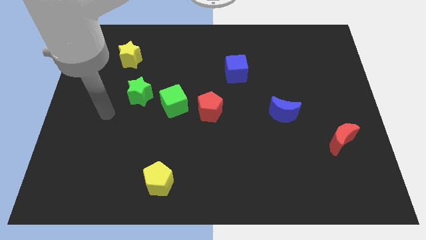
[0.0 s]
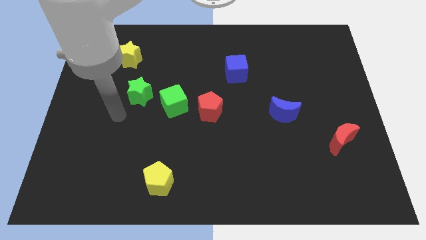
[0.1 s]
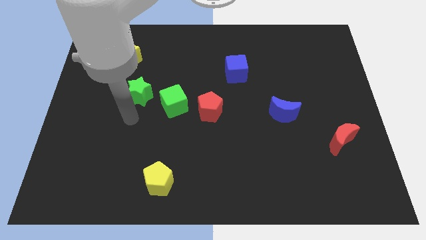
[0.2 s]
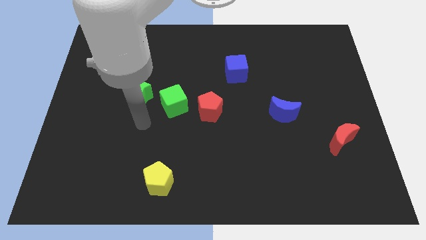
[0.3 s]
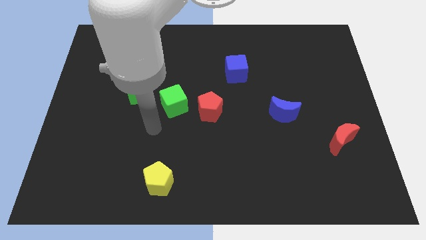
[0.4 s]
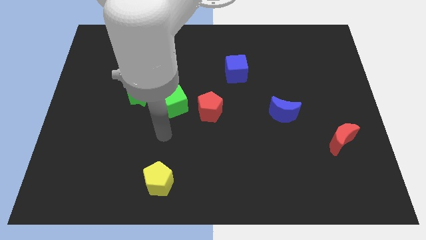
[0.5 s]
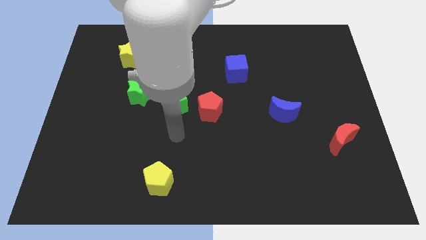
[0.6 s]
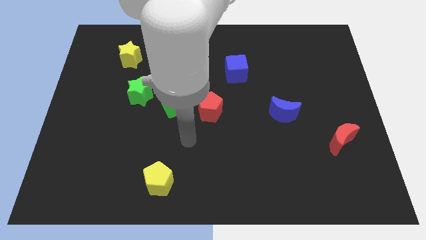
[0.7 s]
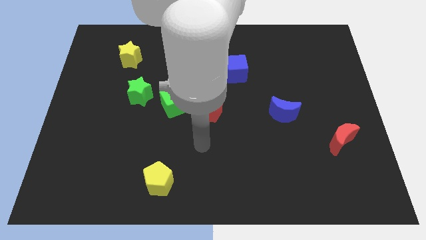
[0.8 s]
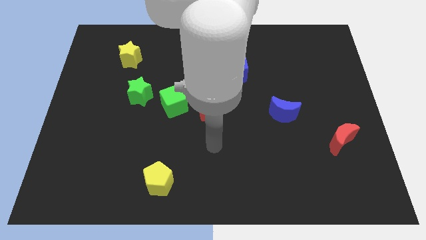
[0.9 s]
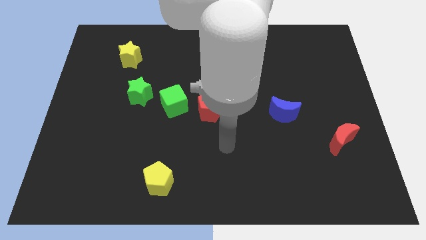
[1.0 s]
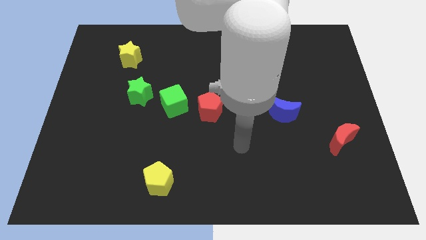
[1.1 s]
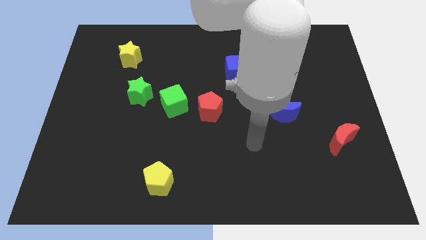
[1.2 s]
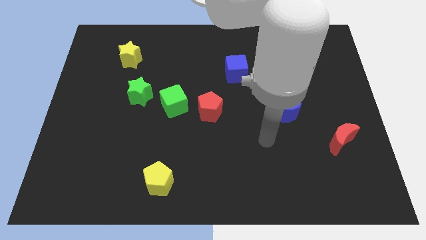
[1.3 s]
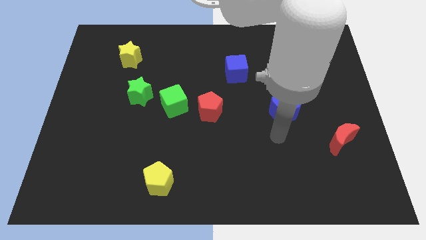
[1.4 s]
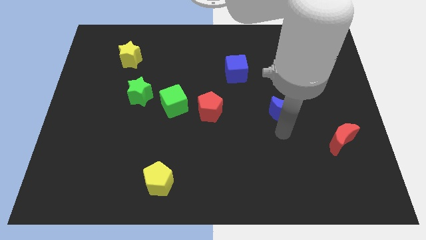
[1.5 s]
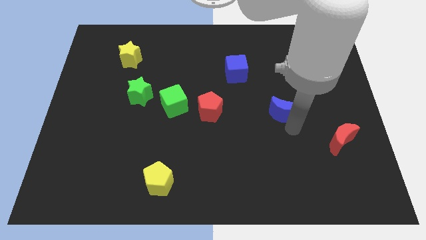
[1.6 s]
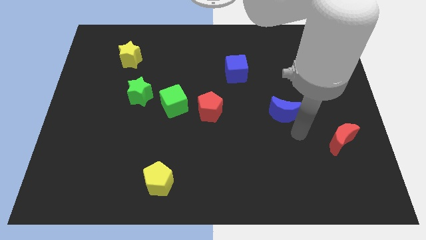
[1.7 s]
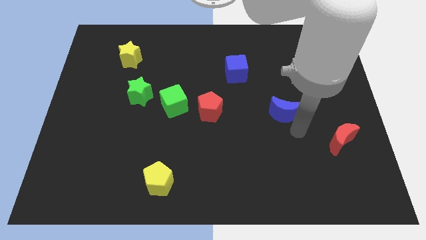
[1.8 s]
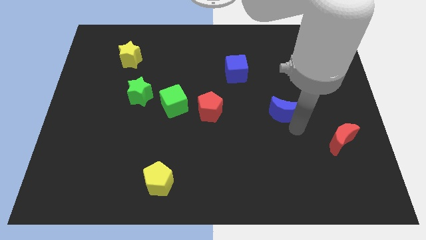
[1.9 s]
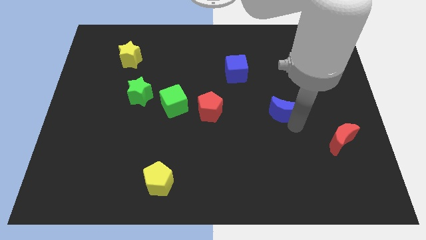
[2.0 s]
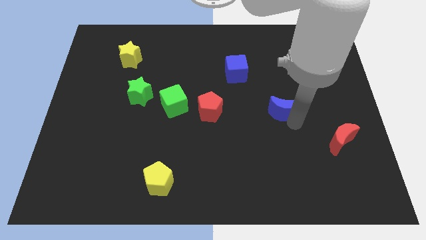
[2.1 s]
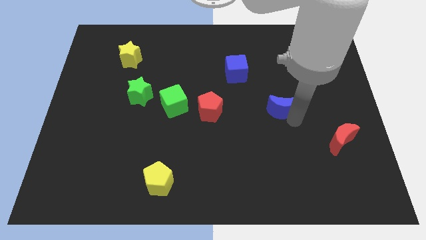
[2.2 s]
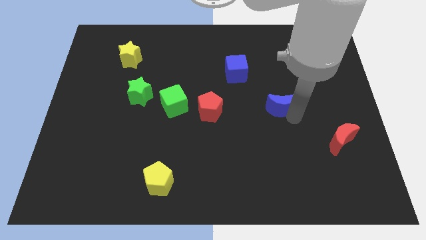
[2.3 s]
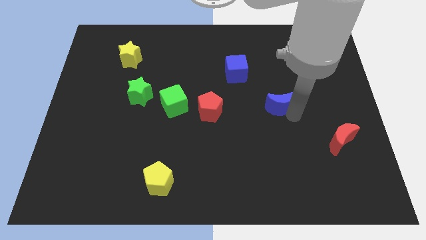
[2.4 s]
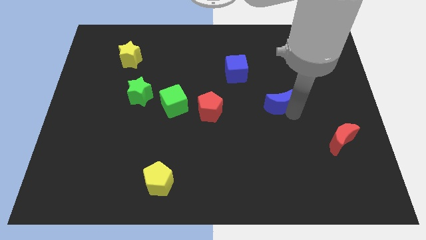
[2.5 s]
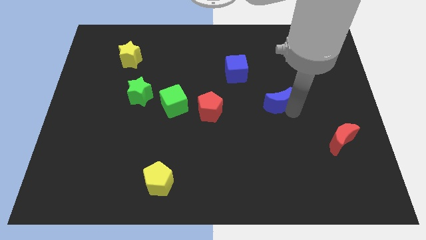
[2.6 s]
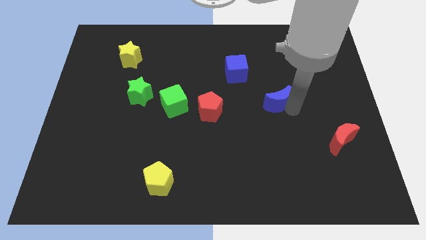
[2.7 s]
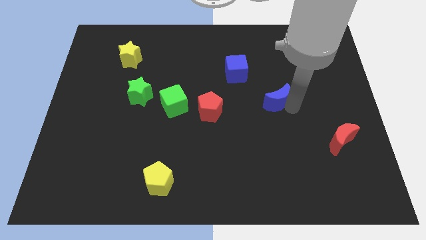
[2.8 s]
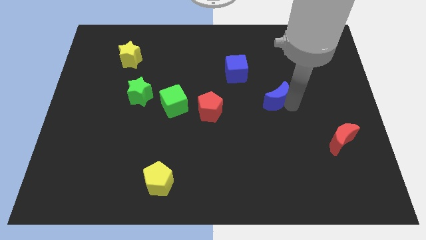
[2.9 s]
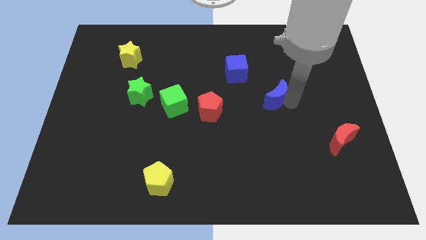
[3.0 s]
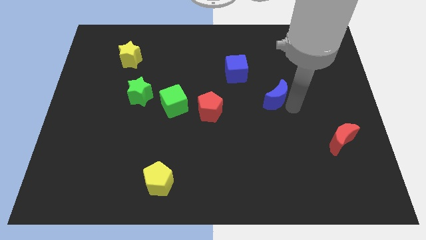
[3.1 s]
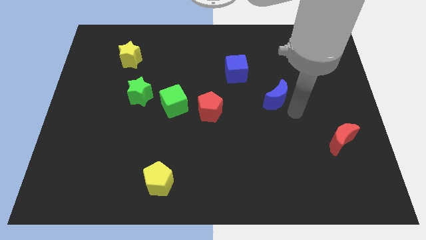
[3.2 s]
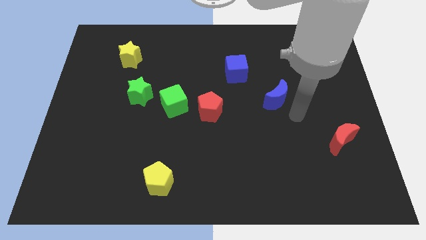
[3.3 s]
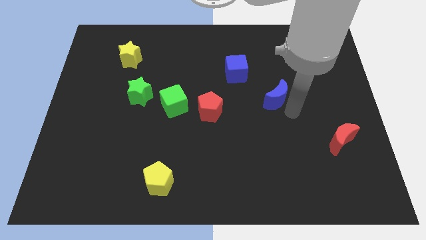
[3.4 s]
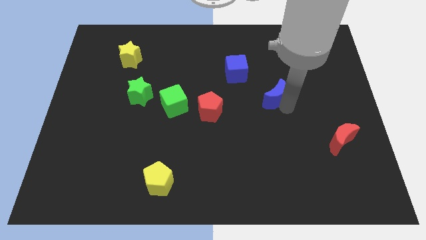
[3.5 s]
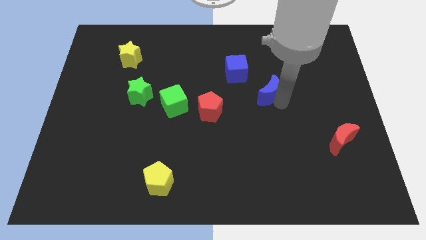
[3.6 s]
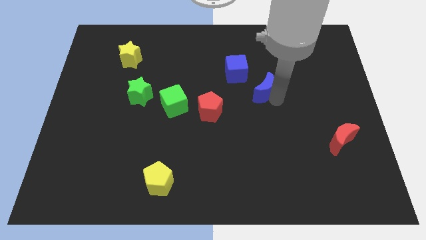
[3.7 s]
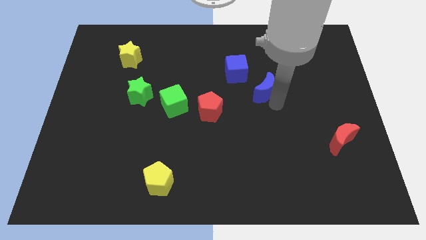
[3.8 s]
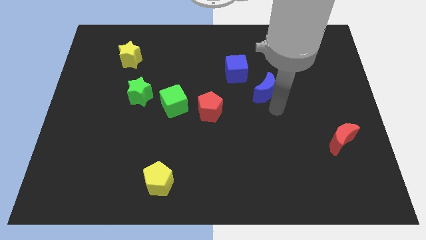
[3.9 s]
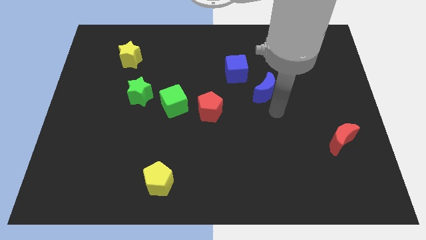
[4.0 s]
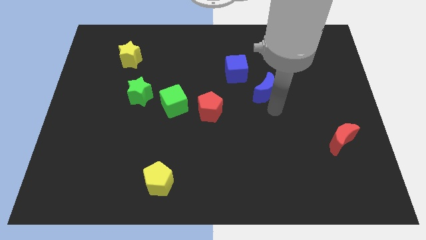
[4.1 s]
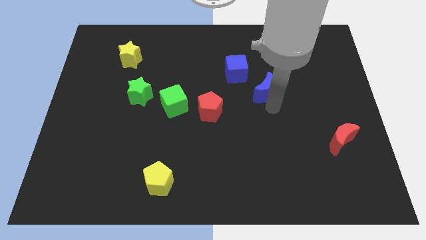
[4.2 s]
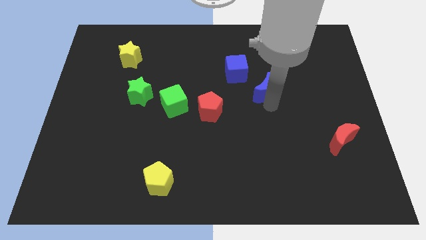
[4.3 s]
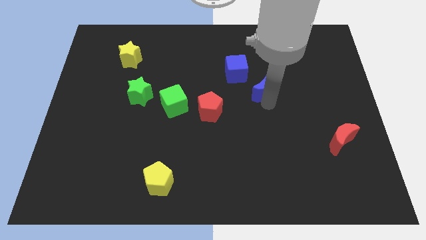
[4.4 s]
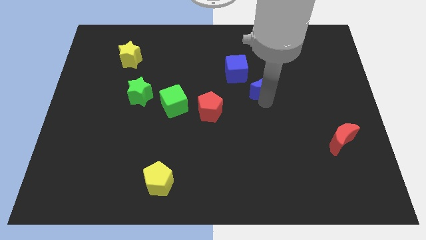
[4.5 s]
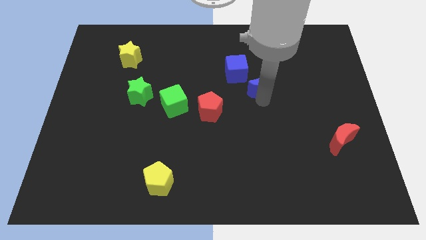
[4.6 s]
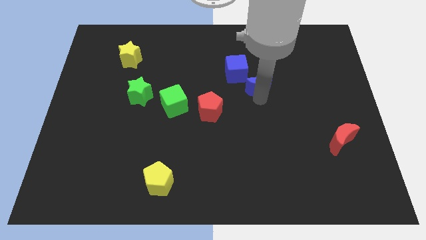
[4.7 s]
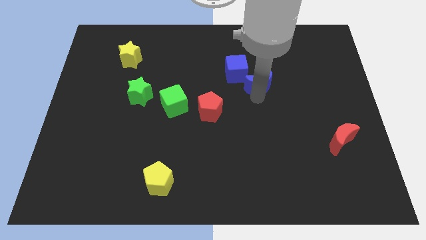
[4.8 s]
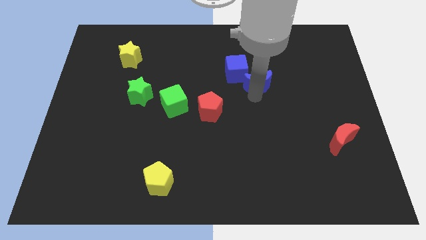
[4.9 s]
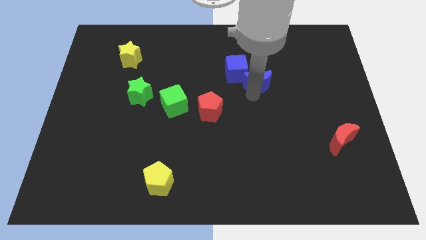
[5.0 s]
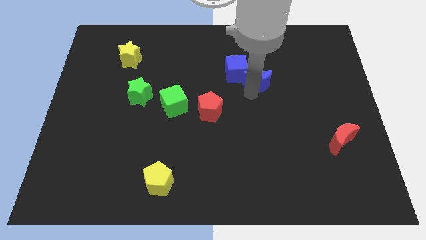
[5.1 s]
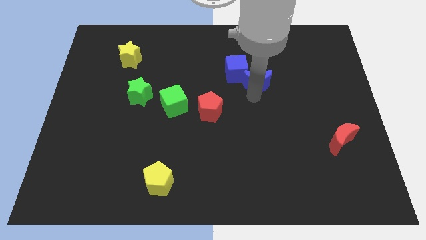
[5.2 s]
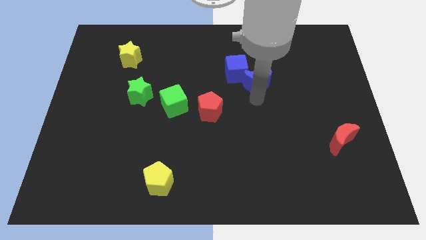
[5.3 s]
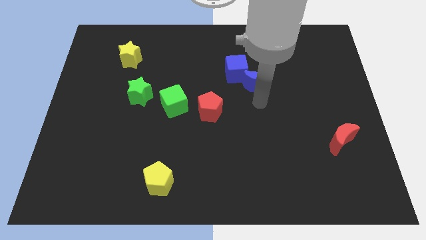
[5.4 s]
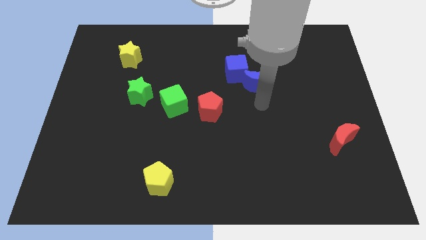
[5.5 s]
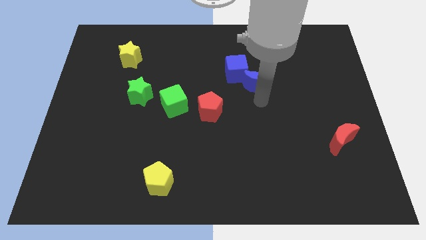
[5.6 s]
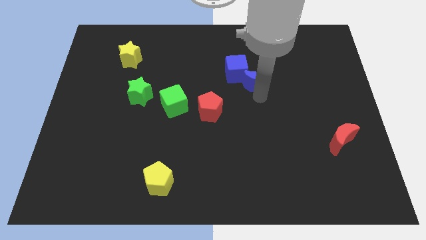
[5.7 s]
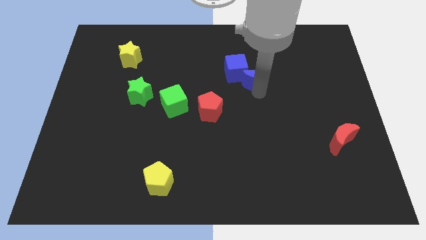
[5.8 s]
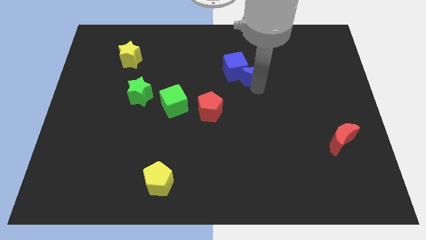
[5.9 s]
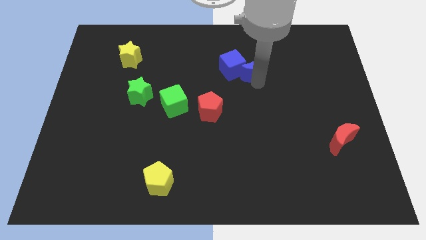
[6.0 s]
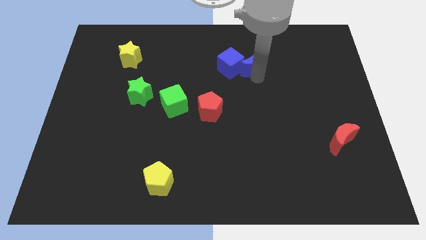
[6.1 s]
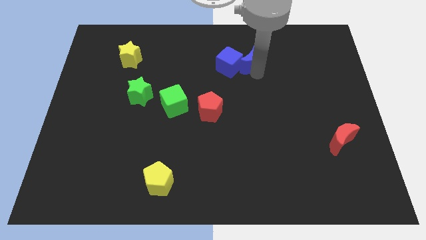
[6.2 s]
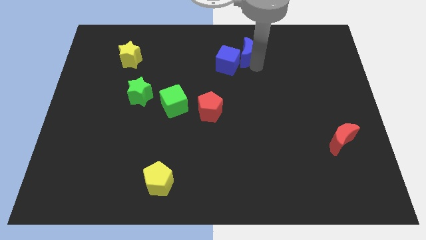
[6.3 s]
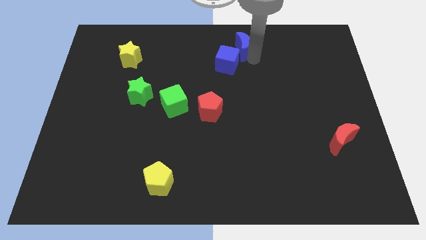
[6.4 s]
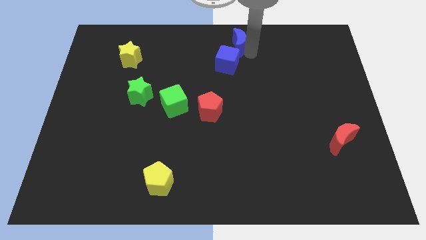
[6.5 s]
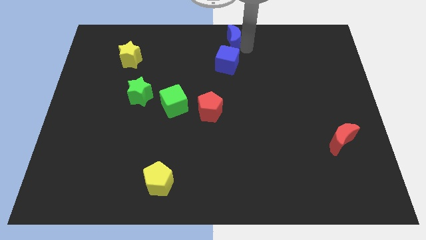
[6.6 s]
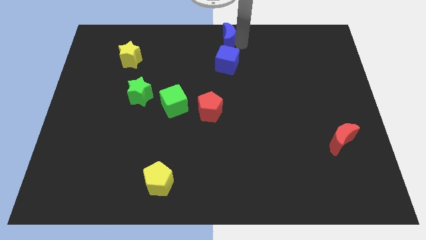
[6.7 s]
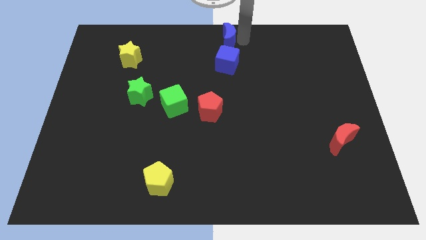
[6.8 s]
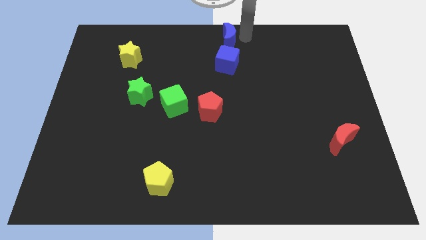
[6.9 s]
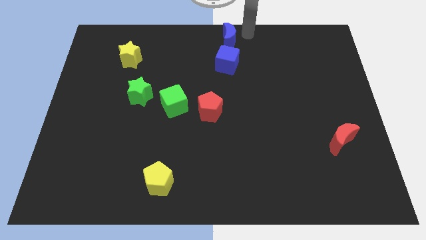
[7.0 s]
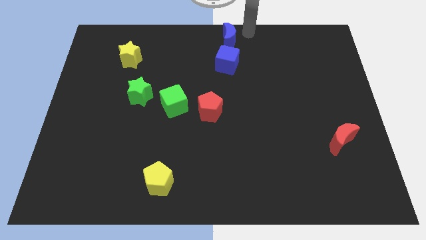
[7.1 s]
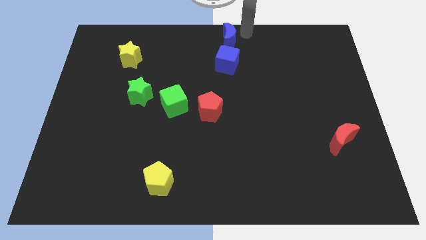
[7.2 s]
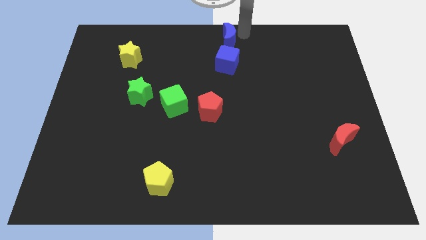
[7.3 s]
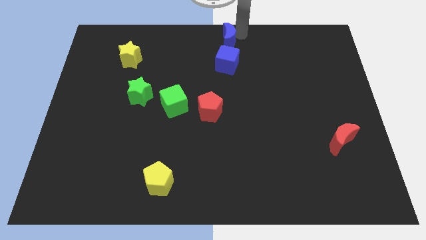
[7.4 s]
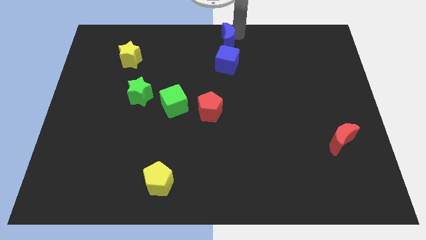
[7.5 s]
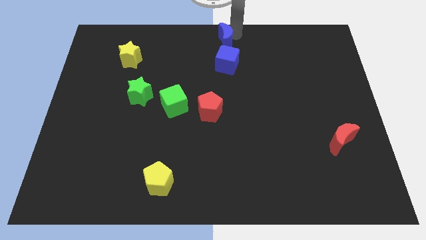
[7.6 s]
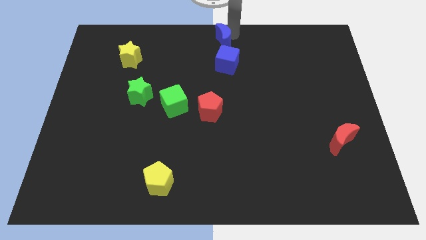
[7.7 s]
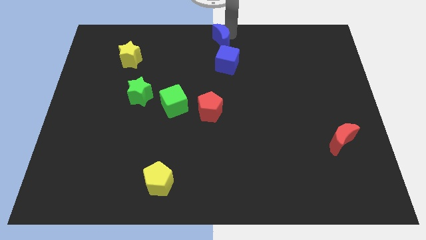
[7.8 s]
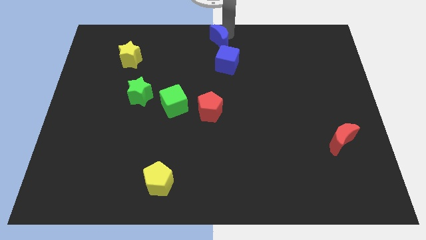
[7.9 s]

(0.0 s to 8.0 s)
put the blue moon to the top left of the blue cube

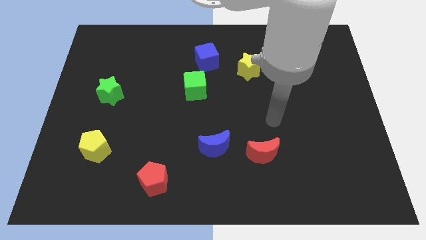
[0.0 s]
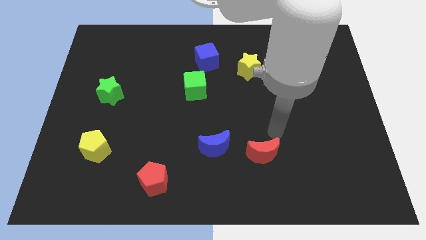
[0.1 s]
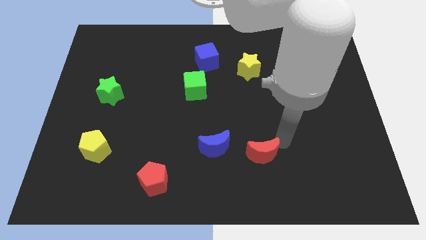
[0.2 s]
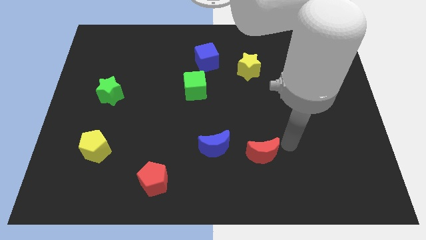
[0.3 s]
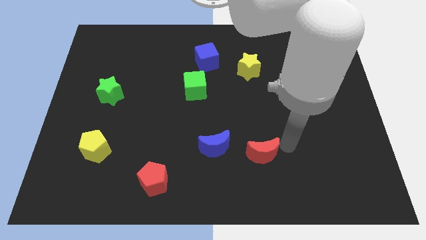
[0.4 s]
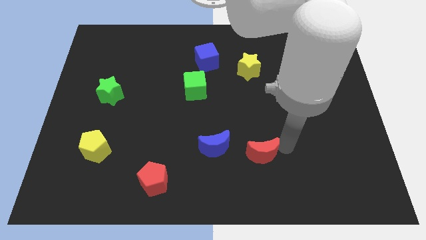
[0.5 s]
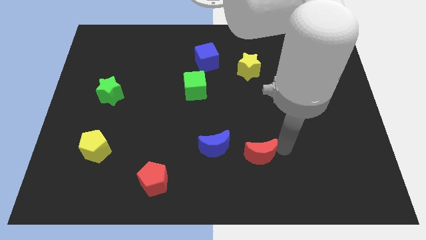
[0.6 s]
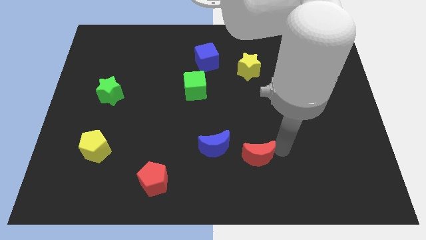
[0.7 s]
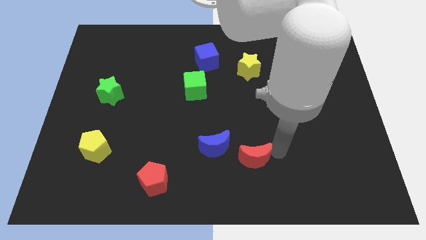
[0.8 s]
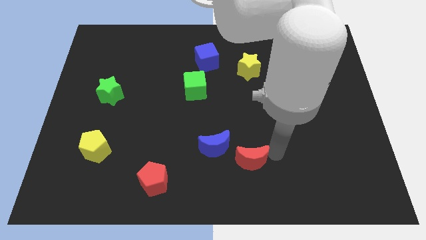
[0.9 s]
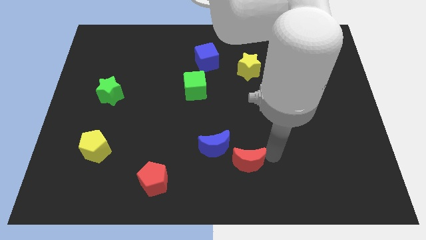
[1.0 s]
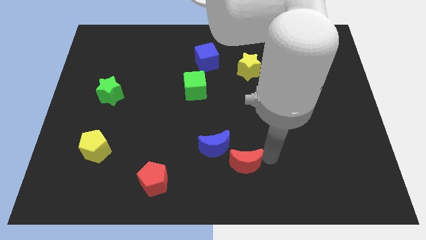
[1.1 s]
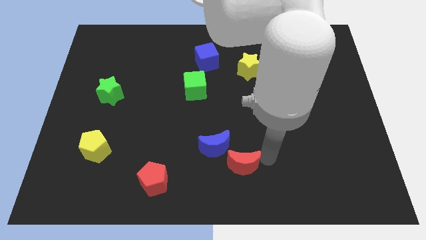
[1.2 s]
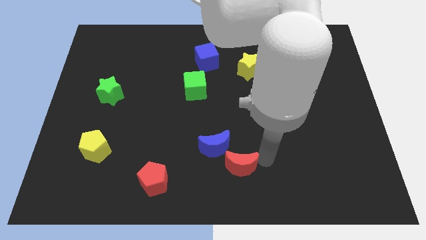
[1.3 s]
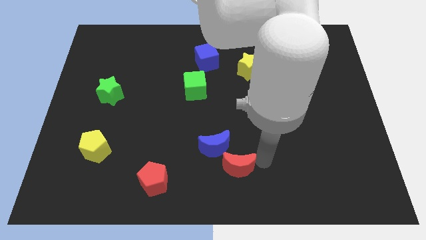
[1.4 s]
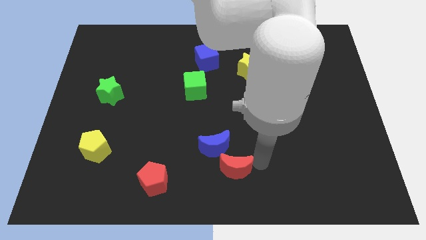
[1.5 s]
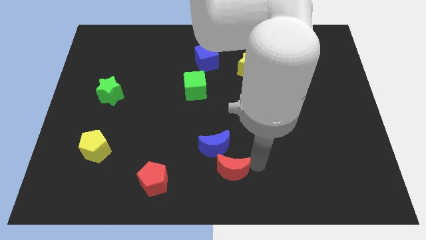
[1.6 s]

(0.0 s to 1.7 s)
put the red moon to the right of the red pentagon
